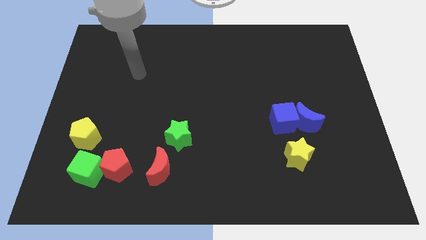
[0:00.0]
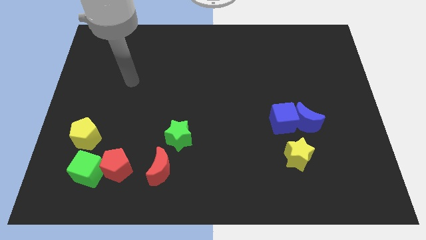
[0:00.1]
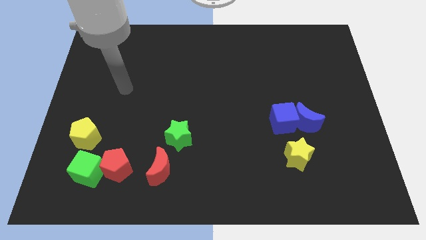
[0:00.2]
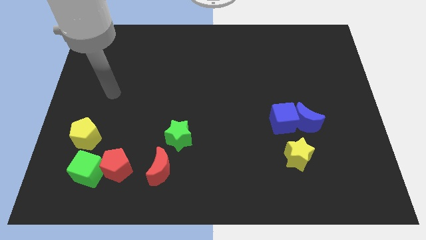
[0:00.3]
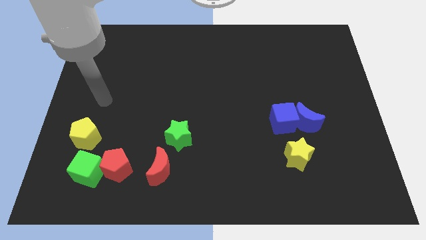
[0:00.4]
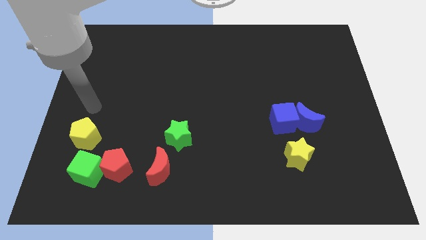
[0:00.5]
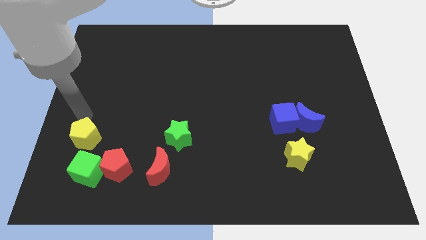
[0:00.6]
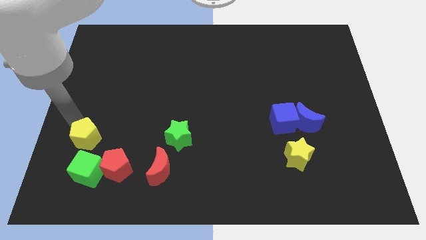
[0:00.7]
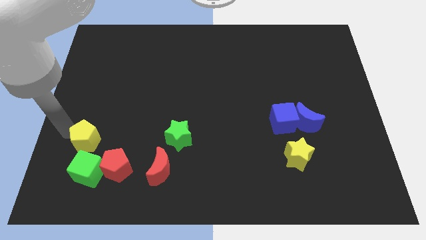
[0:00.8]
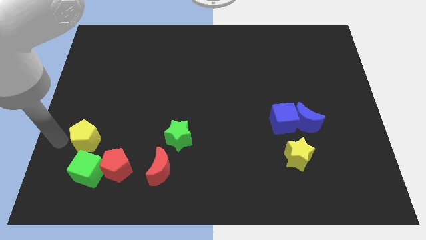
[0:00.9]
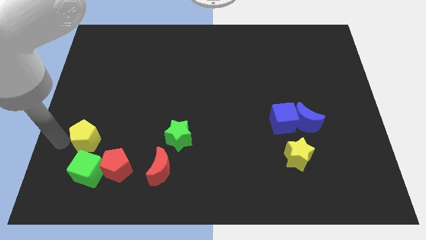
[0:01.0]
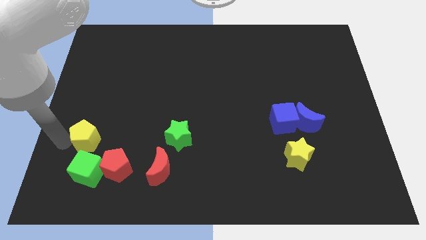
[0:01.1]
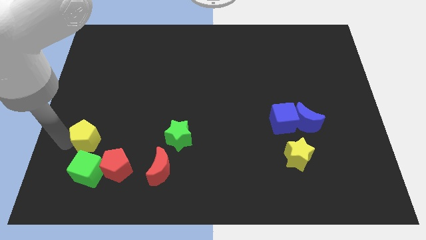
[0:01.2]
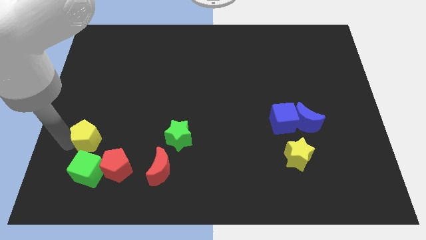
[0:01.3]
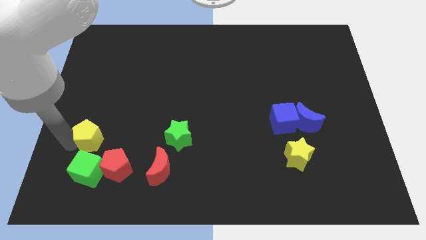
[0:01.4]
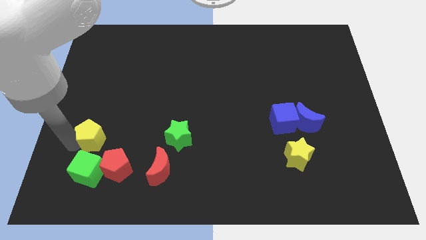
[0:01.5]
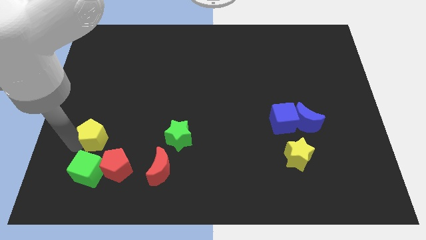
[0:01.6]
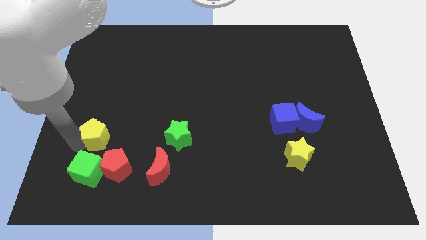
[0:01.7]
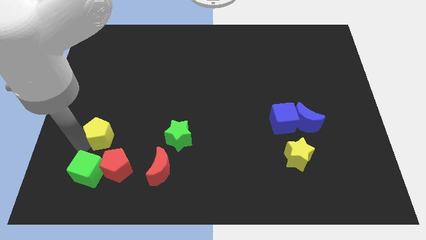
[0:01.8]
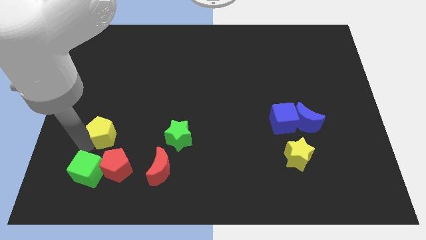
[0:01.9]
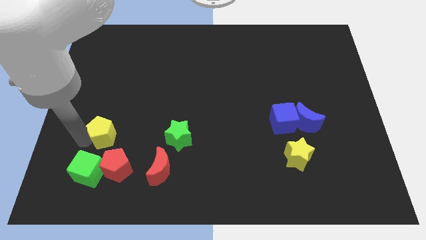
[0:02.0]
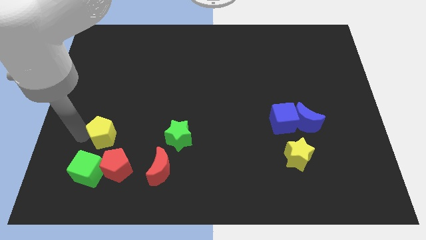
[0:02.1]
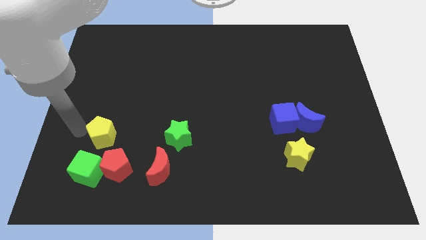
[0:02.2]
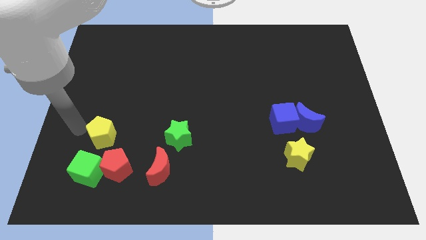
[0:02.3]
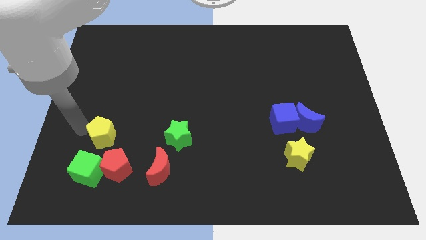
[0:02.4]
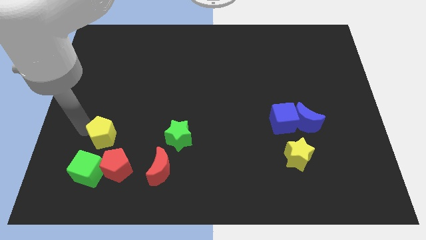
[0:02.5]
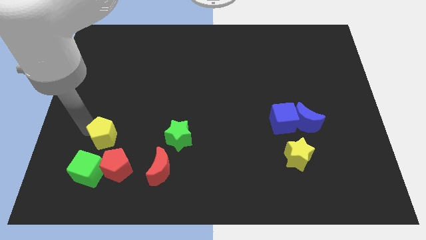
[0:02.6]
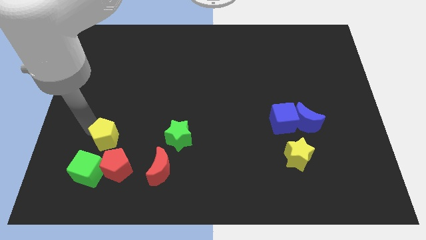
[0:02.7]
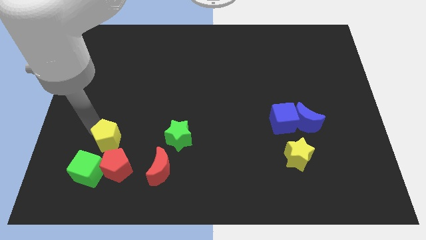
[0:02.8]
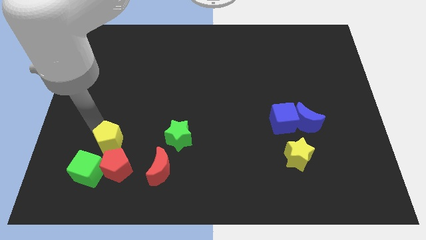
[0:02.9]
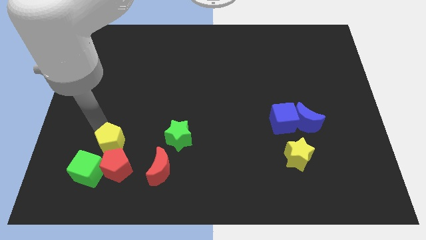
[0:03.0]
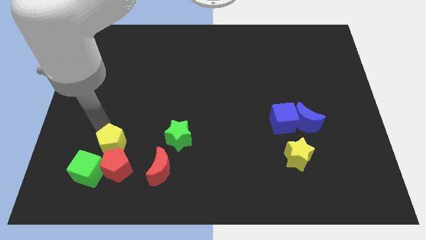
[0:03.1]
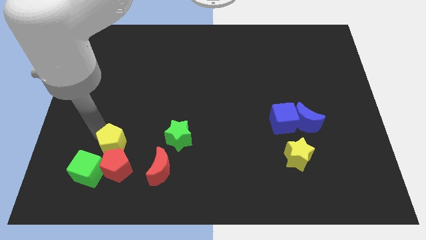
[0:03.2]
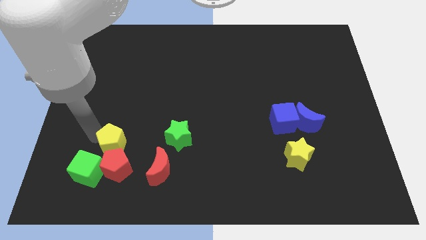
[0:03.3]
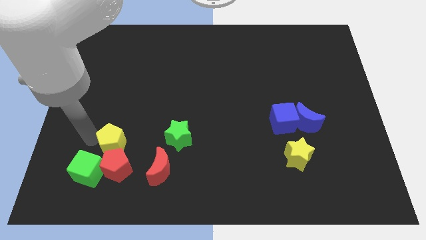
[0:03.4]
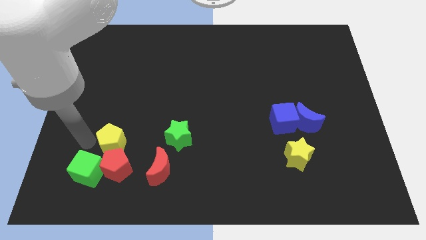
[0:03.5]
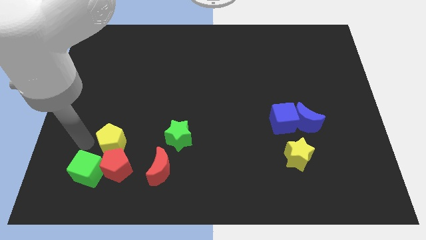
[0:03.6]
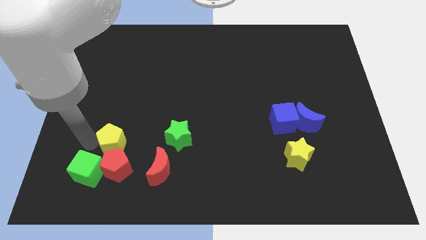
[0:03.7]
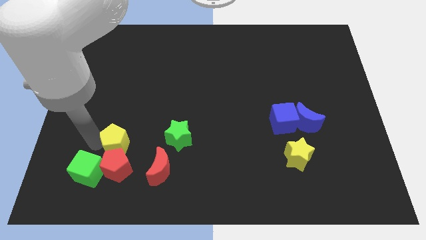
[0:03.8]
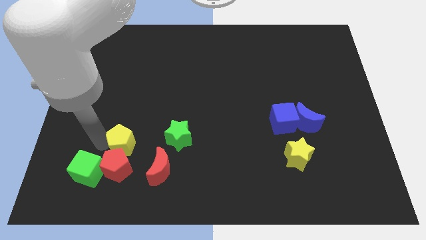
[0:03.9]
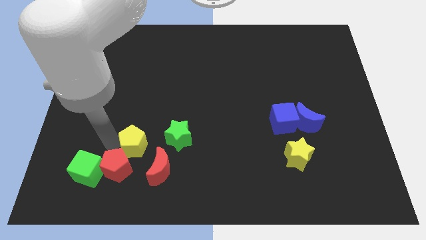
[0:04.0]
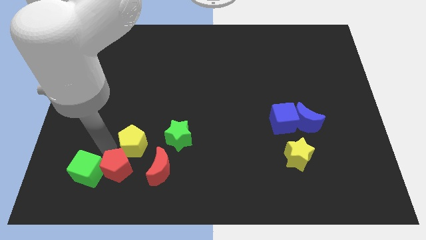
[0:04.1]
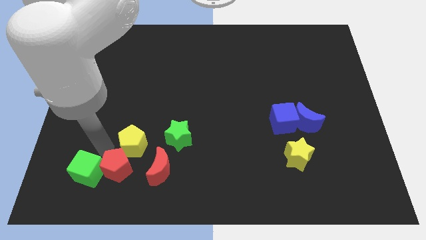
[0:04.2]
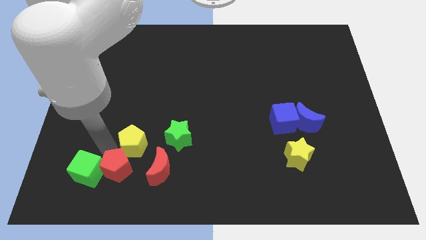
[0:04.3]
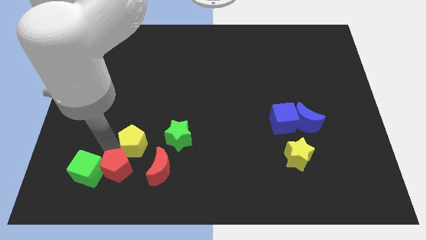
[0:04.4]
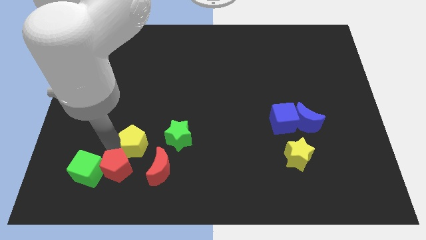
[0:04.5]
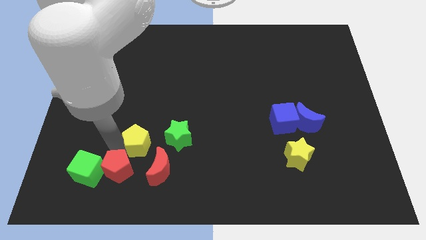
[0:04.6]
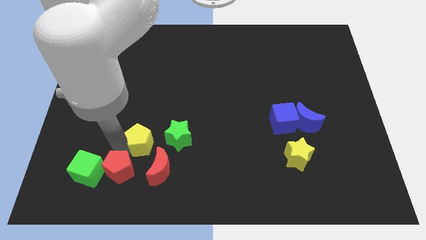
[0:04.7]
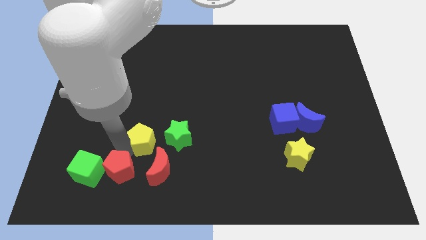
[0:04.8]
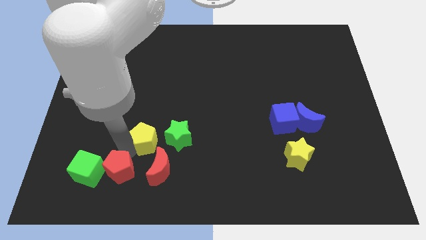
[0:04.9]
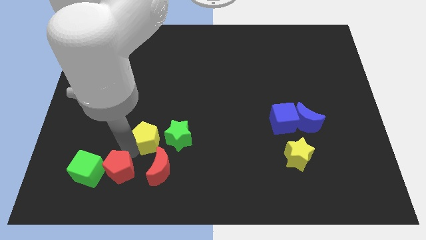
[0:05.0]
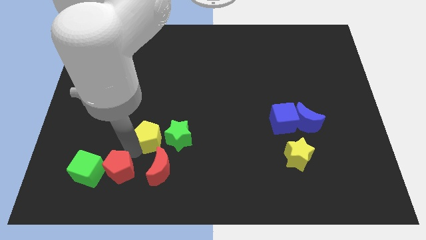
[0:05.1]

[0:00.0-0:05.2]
push the yellow pentagon to the green star
